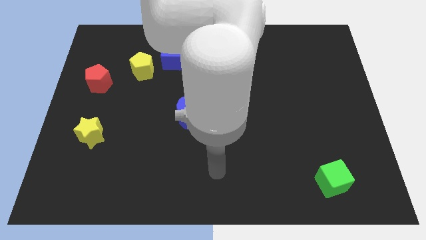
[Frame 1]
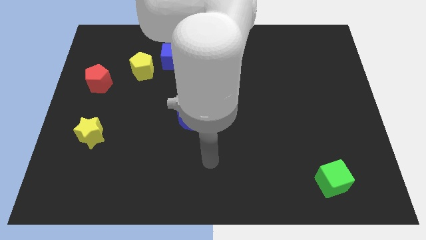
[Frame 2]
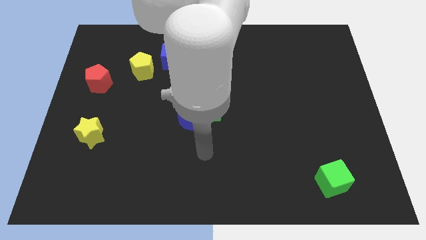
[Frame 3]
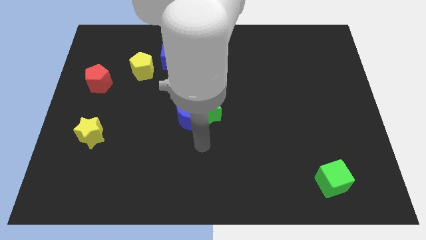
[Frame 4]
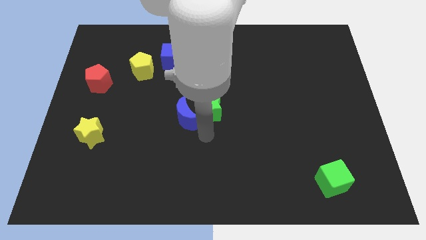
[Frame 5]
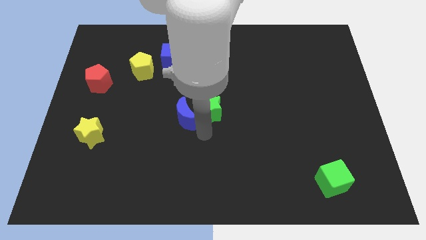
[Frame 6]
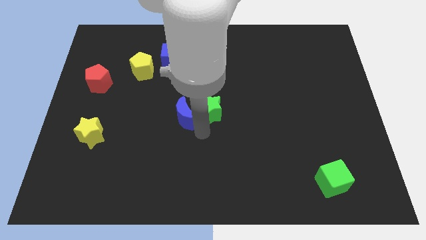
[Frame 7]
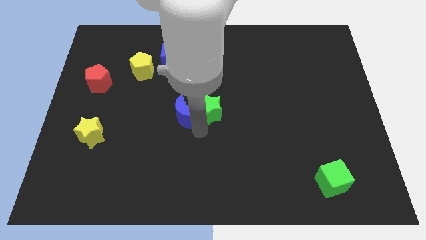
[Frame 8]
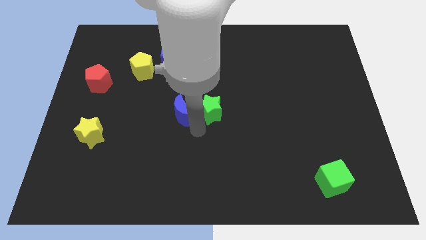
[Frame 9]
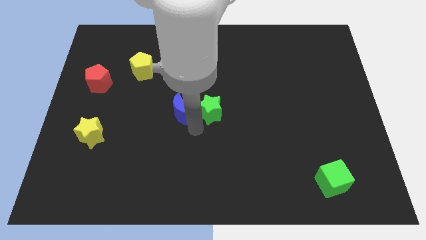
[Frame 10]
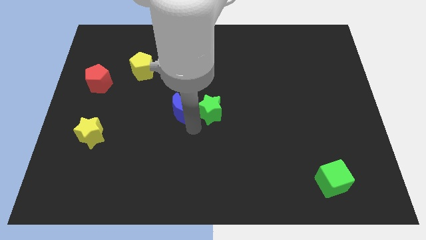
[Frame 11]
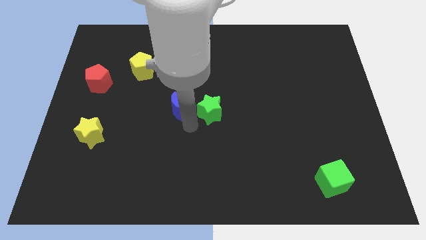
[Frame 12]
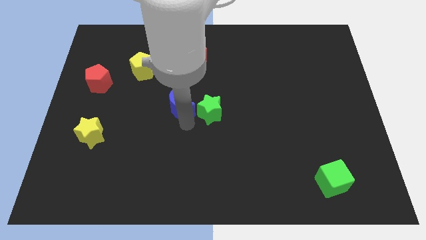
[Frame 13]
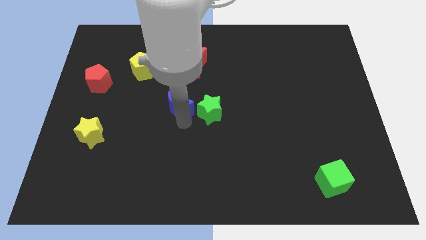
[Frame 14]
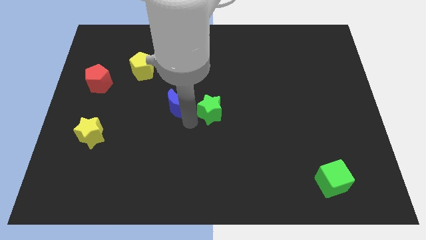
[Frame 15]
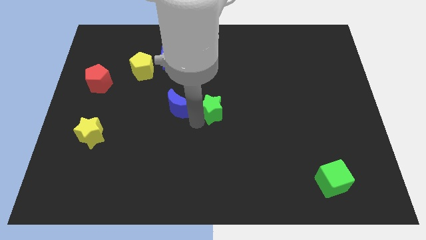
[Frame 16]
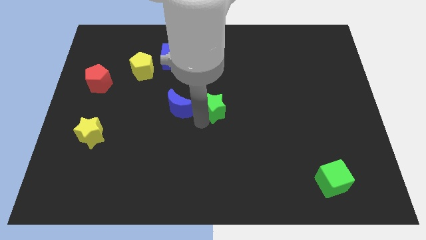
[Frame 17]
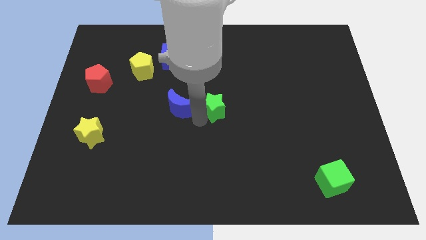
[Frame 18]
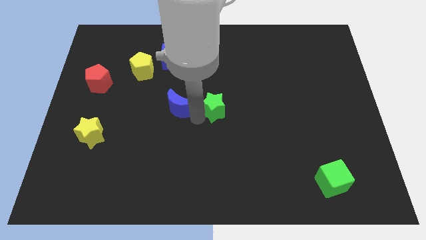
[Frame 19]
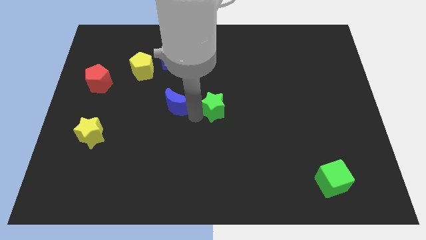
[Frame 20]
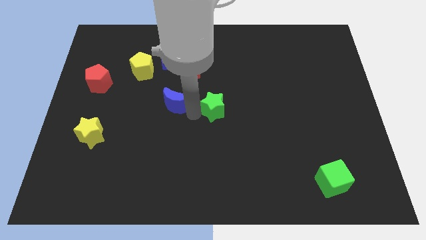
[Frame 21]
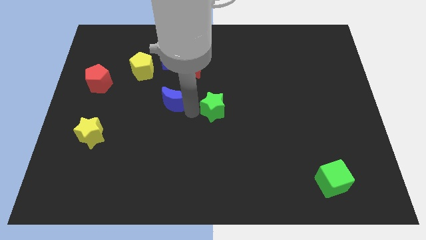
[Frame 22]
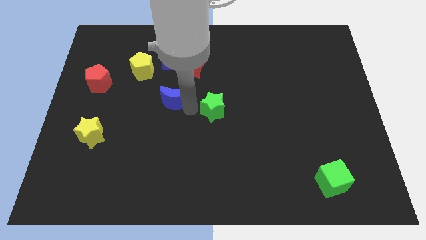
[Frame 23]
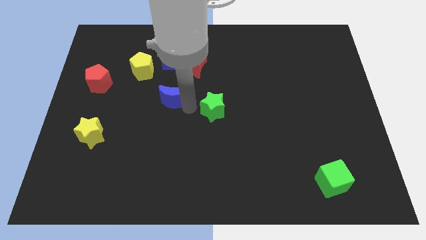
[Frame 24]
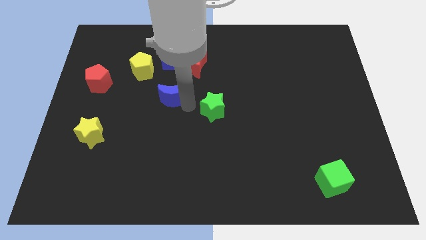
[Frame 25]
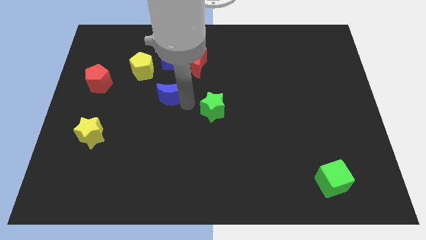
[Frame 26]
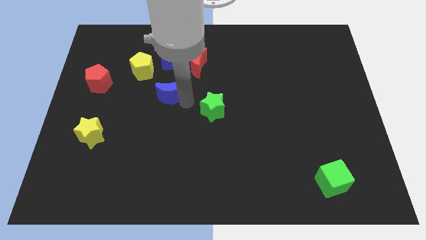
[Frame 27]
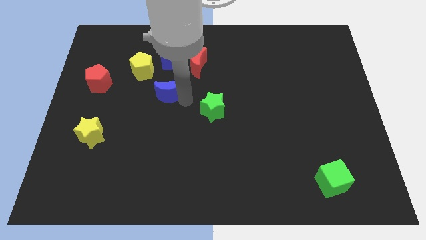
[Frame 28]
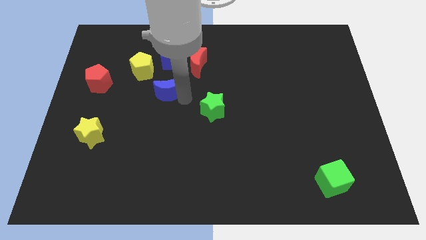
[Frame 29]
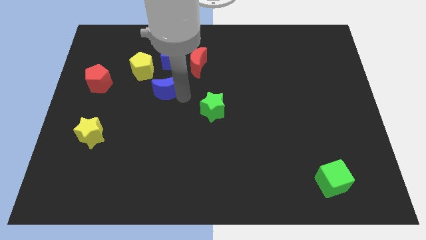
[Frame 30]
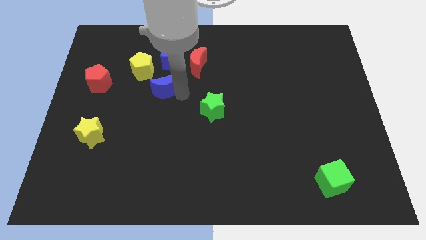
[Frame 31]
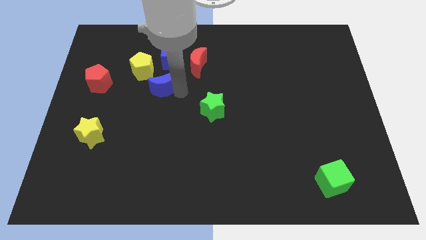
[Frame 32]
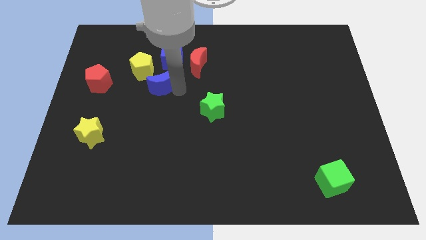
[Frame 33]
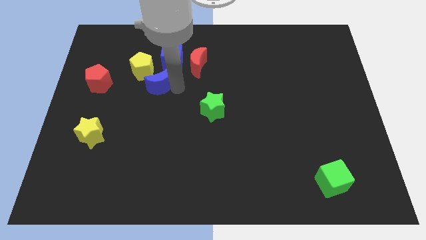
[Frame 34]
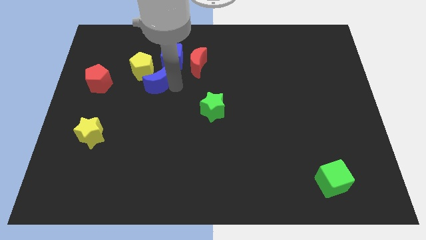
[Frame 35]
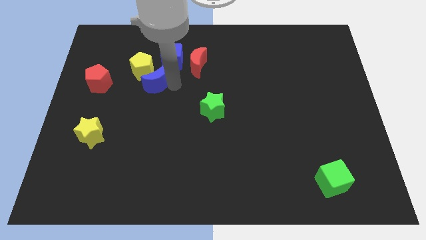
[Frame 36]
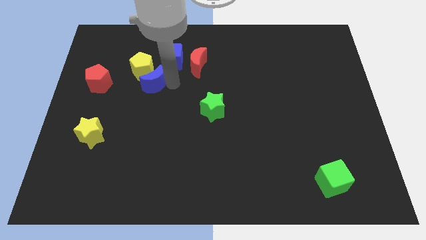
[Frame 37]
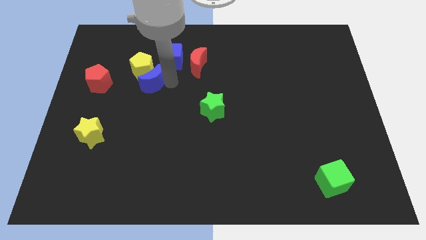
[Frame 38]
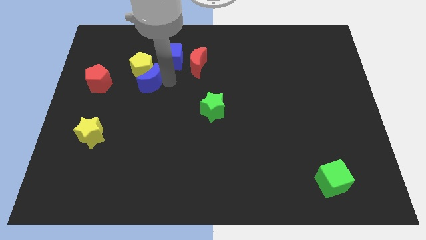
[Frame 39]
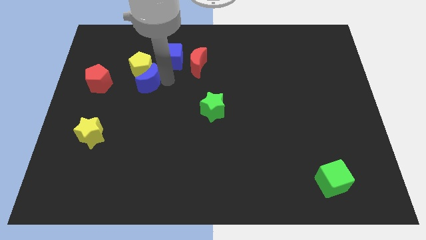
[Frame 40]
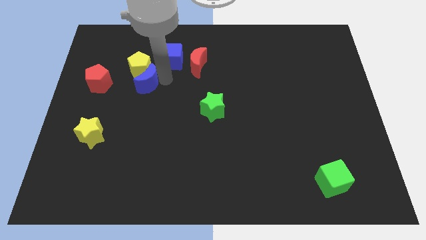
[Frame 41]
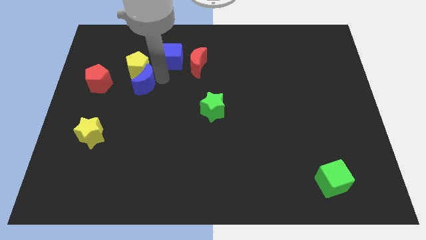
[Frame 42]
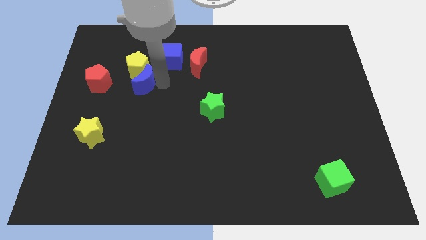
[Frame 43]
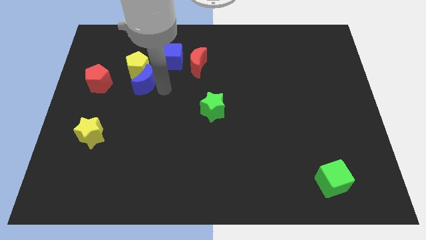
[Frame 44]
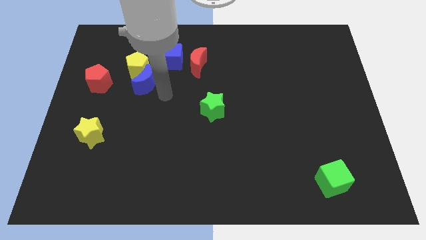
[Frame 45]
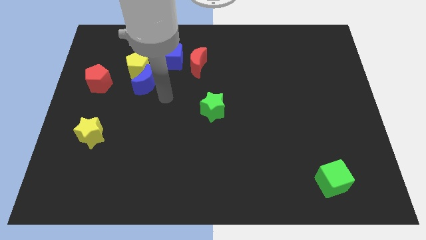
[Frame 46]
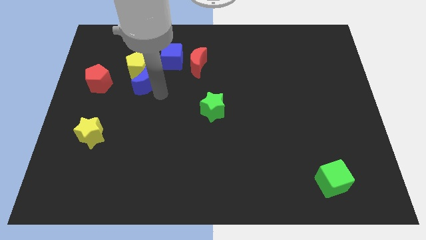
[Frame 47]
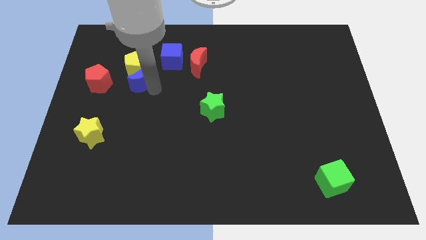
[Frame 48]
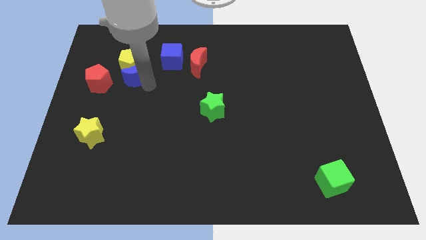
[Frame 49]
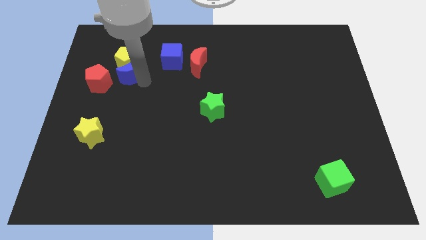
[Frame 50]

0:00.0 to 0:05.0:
put the blue moon to the top right side of the red pentagon

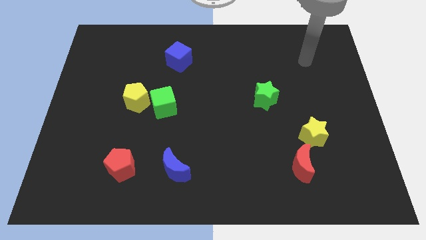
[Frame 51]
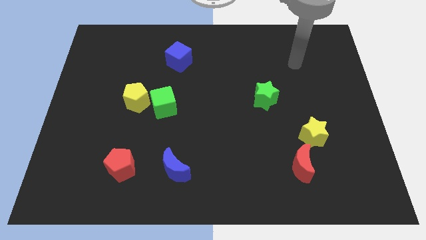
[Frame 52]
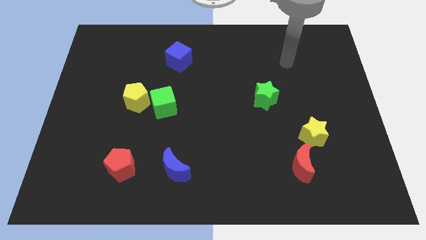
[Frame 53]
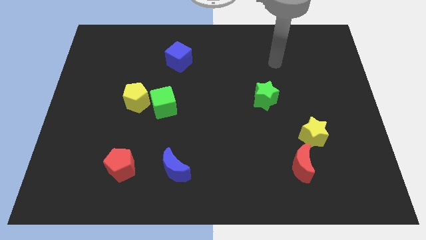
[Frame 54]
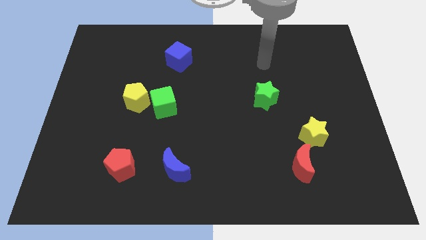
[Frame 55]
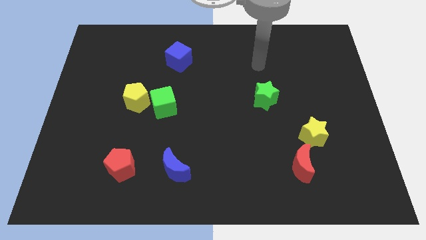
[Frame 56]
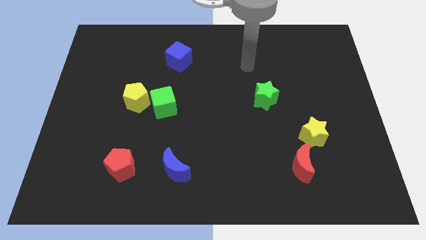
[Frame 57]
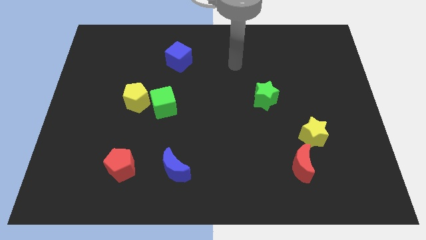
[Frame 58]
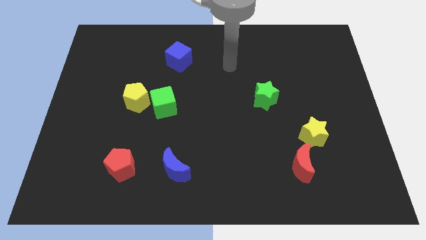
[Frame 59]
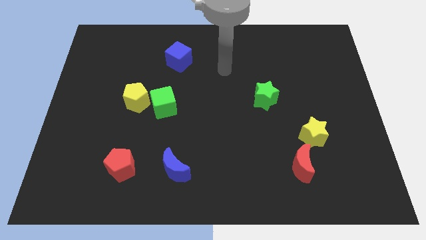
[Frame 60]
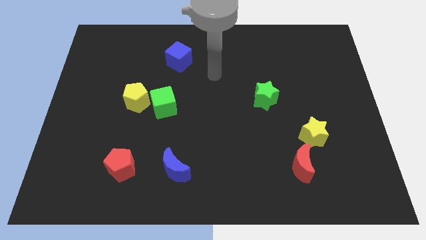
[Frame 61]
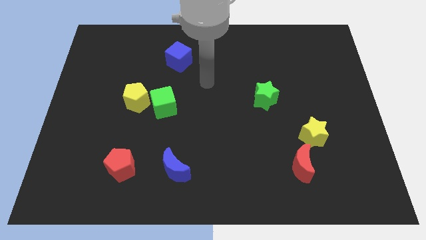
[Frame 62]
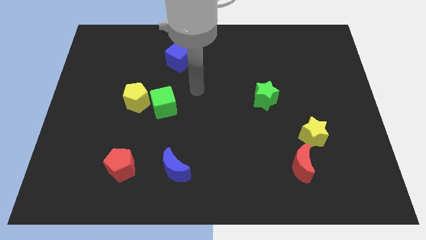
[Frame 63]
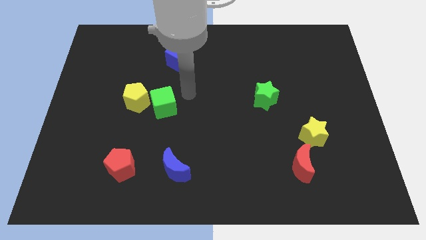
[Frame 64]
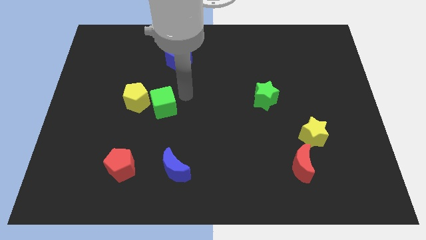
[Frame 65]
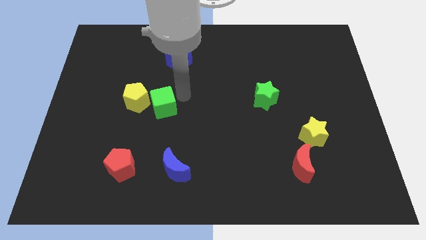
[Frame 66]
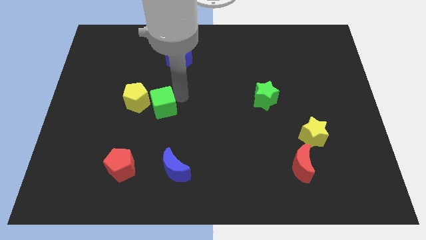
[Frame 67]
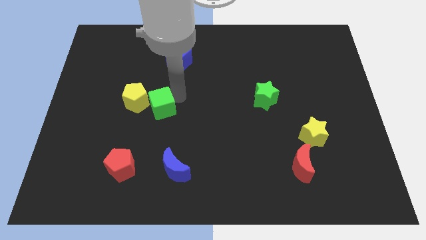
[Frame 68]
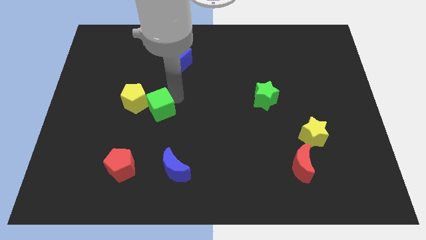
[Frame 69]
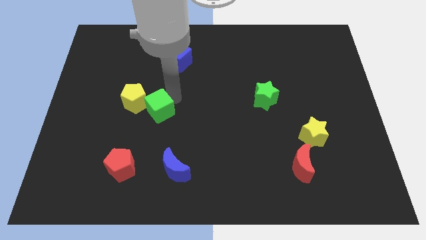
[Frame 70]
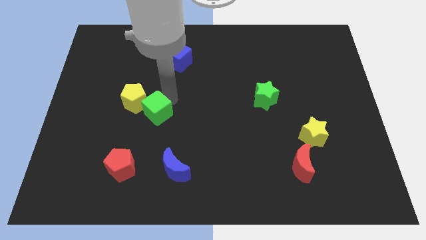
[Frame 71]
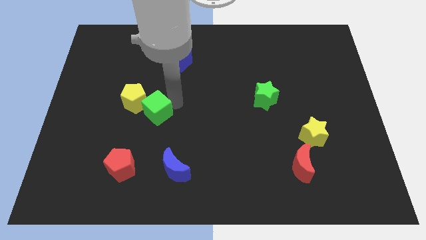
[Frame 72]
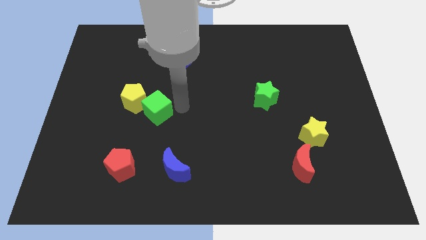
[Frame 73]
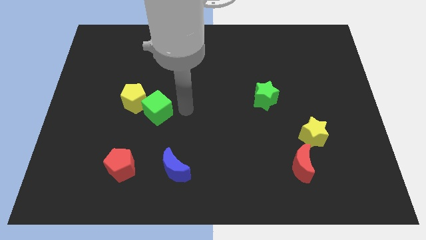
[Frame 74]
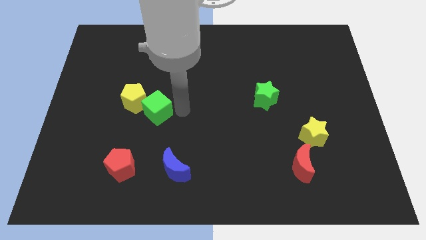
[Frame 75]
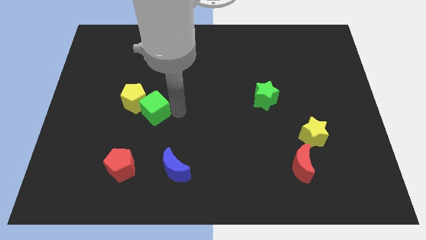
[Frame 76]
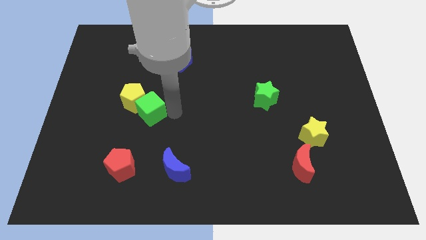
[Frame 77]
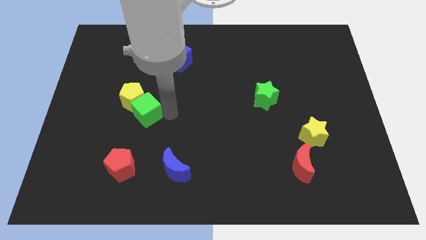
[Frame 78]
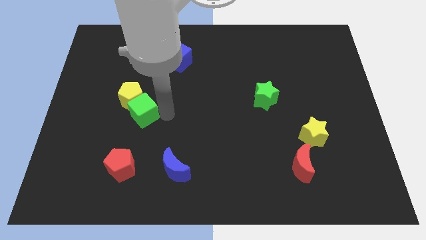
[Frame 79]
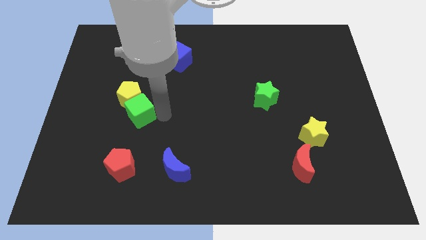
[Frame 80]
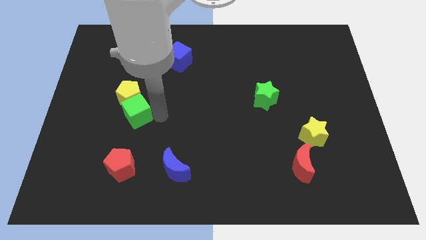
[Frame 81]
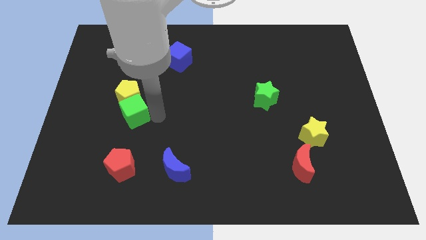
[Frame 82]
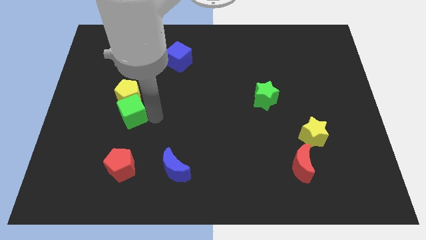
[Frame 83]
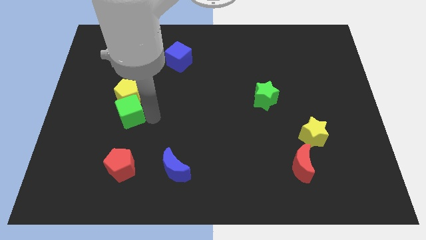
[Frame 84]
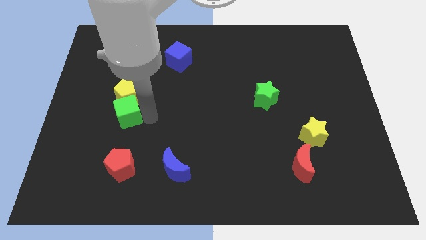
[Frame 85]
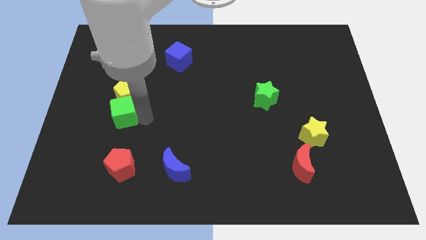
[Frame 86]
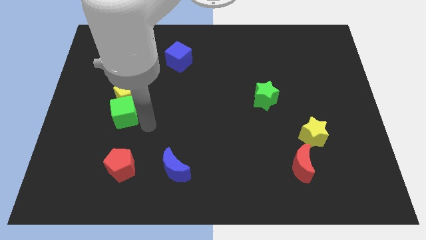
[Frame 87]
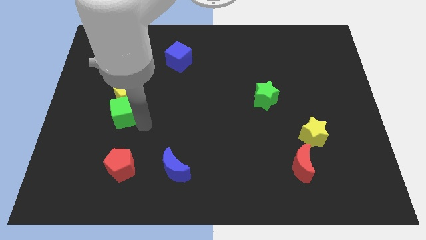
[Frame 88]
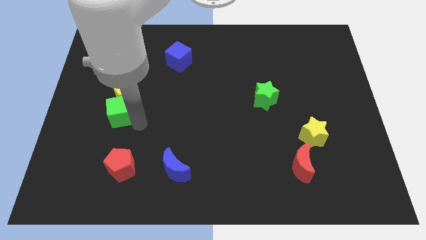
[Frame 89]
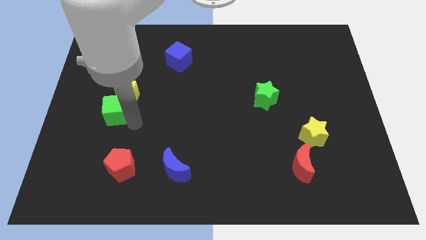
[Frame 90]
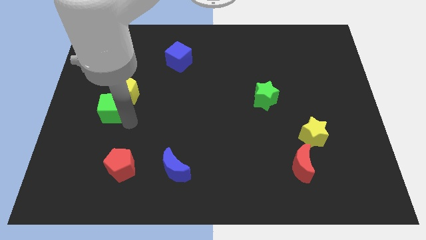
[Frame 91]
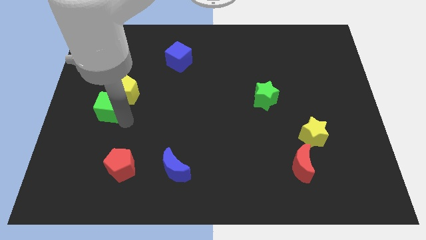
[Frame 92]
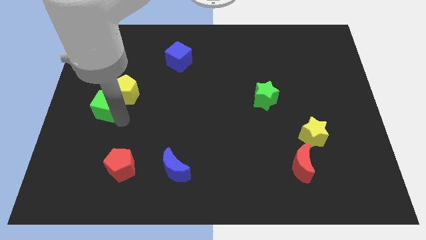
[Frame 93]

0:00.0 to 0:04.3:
push the green cube left of the yellow pentagon
